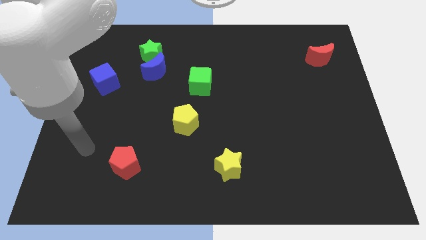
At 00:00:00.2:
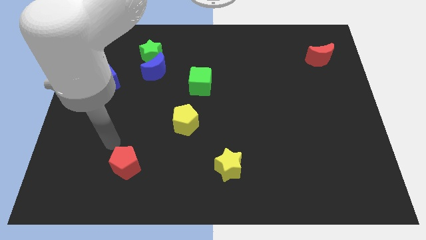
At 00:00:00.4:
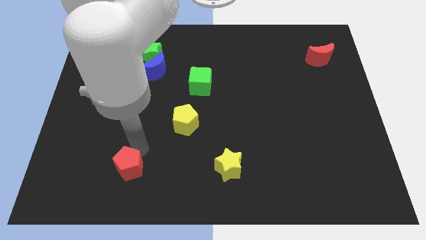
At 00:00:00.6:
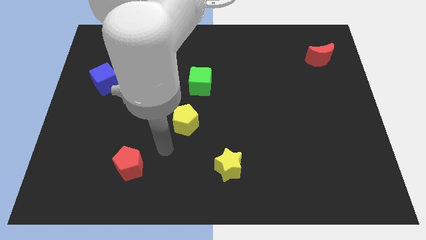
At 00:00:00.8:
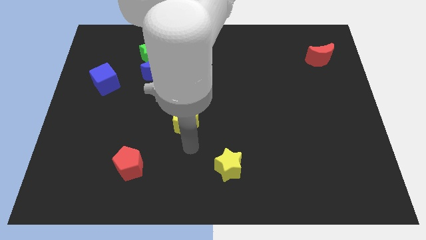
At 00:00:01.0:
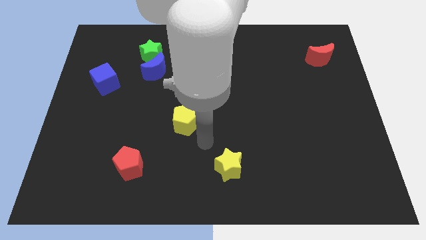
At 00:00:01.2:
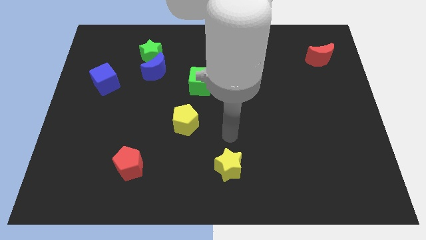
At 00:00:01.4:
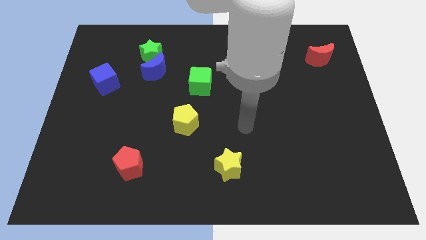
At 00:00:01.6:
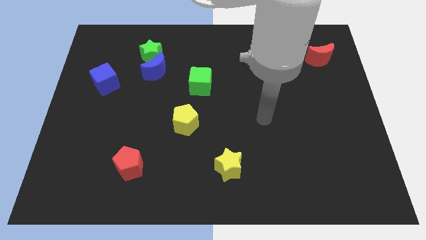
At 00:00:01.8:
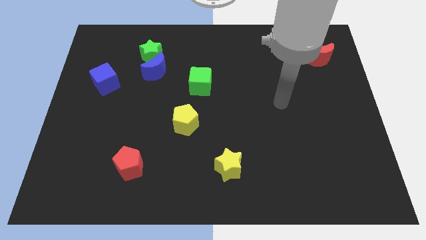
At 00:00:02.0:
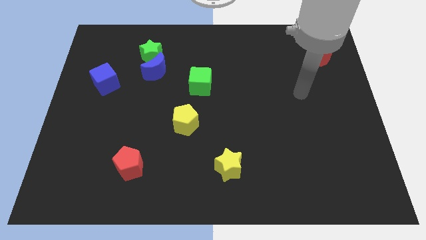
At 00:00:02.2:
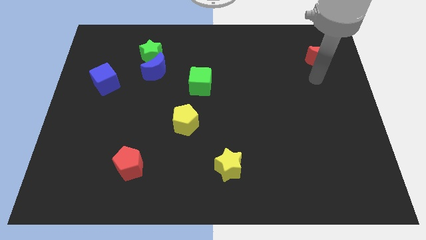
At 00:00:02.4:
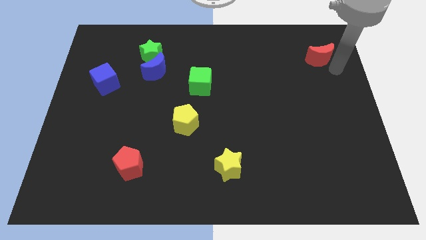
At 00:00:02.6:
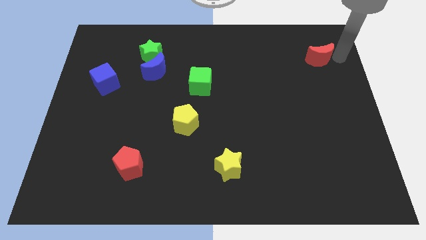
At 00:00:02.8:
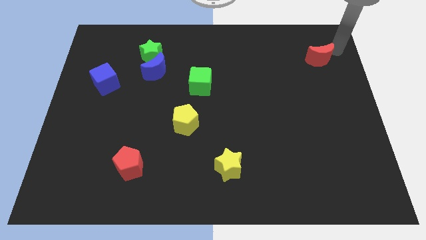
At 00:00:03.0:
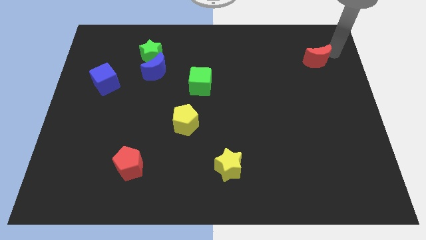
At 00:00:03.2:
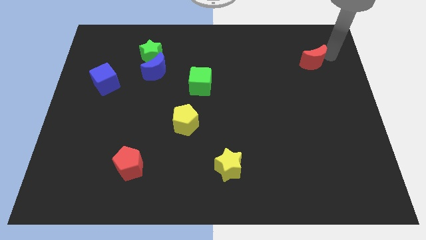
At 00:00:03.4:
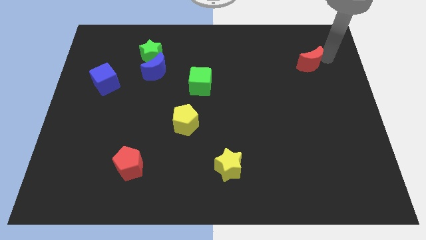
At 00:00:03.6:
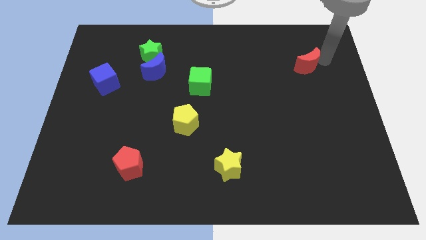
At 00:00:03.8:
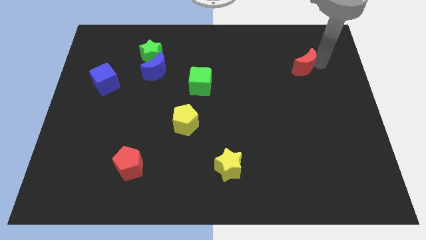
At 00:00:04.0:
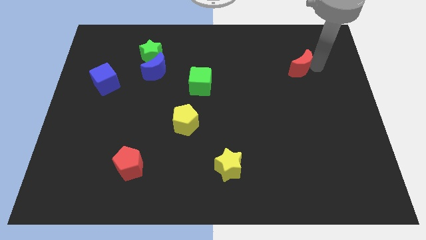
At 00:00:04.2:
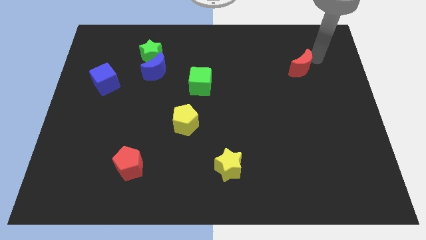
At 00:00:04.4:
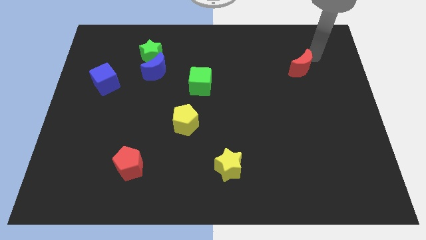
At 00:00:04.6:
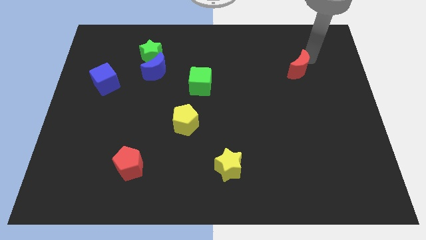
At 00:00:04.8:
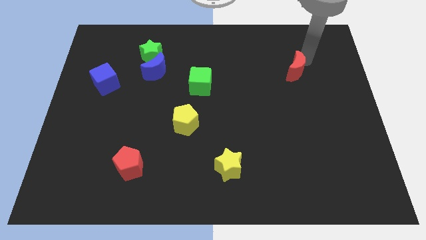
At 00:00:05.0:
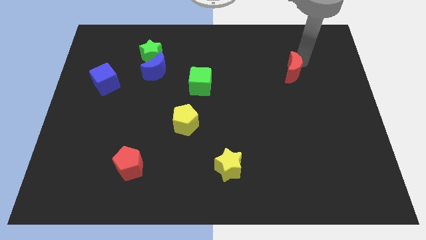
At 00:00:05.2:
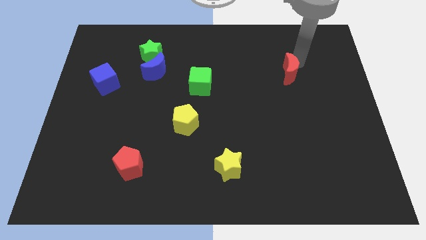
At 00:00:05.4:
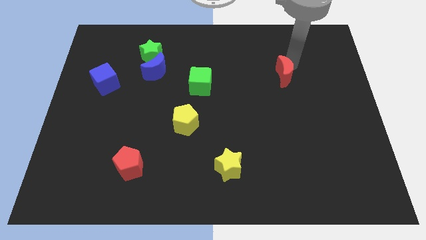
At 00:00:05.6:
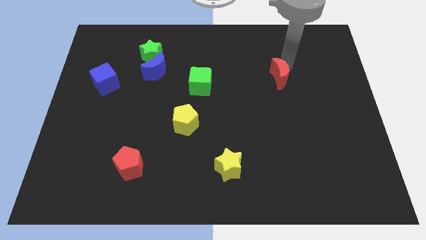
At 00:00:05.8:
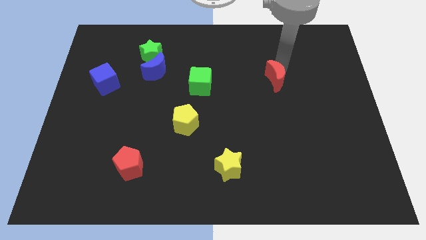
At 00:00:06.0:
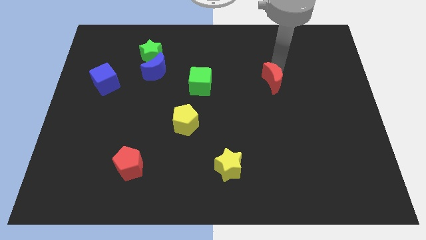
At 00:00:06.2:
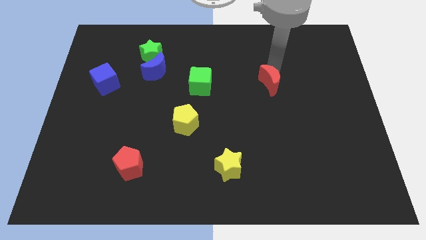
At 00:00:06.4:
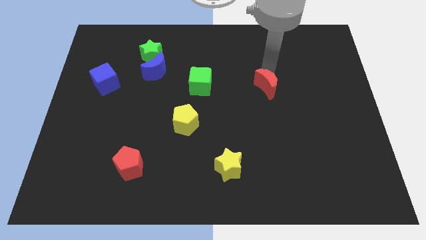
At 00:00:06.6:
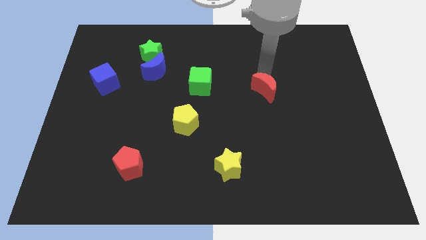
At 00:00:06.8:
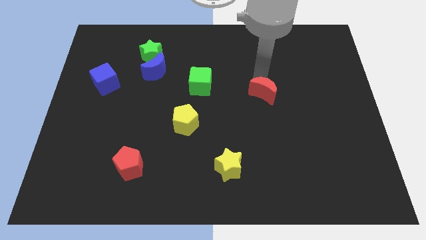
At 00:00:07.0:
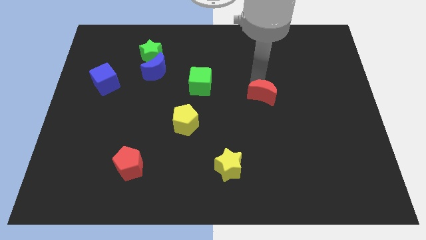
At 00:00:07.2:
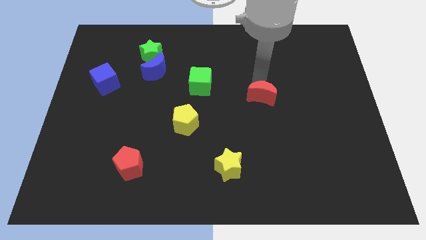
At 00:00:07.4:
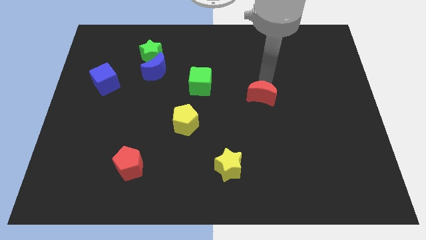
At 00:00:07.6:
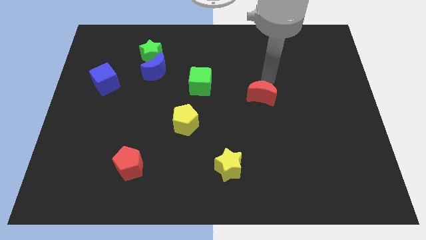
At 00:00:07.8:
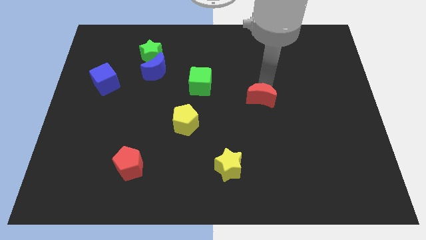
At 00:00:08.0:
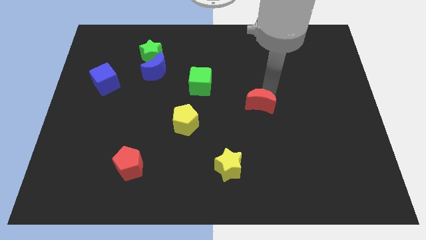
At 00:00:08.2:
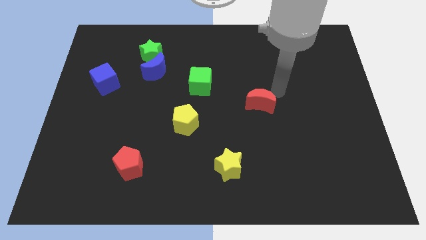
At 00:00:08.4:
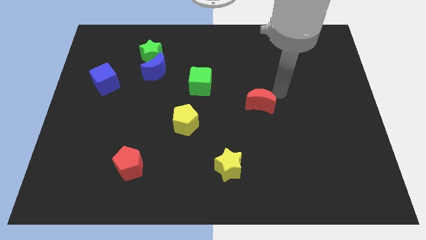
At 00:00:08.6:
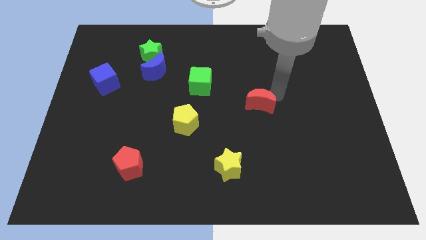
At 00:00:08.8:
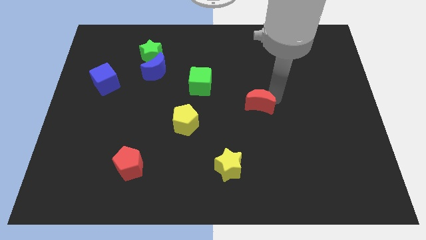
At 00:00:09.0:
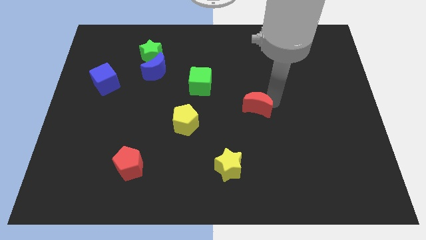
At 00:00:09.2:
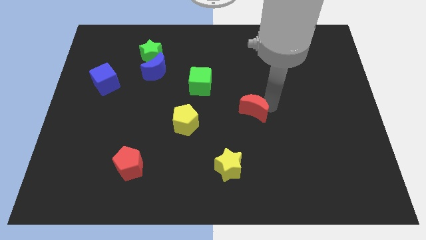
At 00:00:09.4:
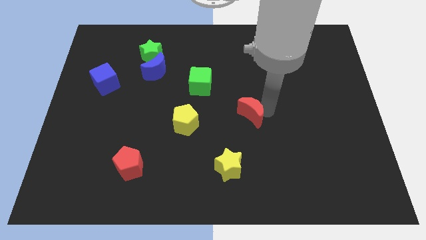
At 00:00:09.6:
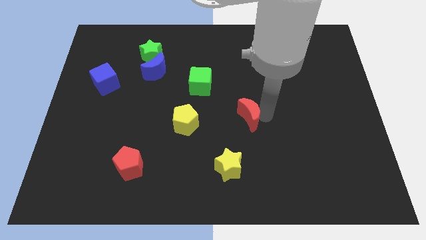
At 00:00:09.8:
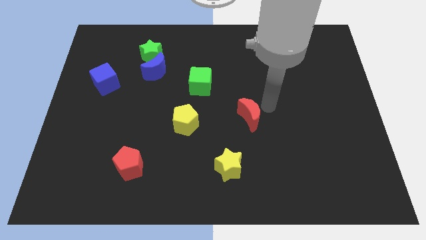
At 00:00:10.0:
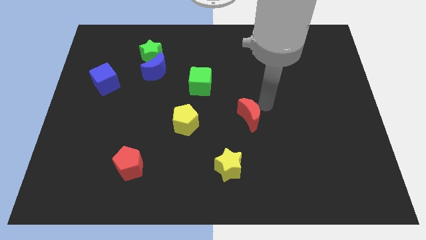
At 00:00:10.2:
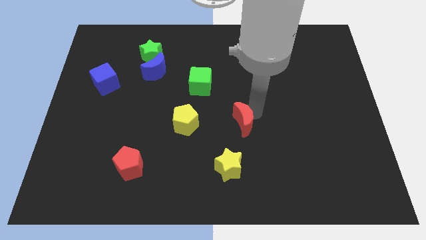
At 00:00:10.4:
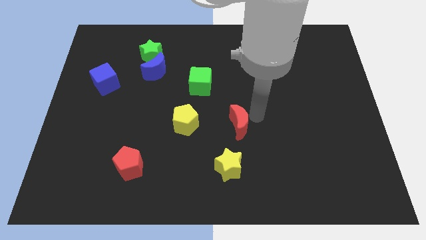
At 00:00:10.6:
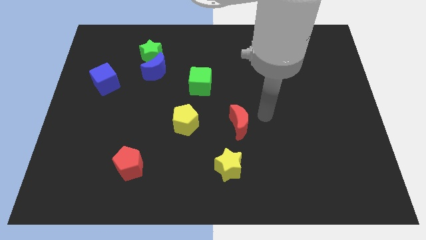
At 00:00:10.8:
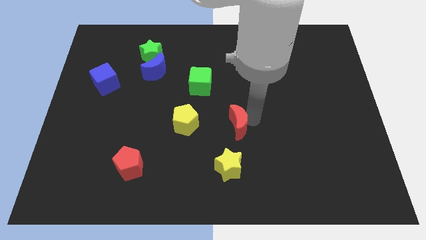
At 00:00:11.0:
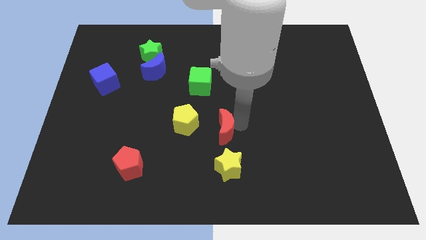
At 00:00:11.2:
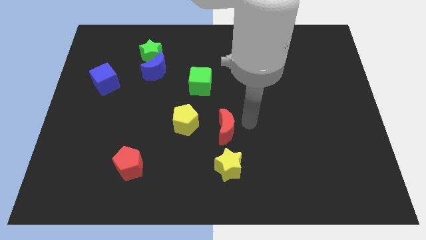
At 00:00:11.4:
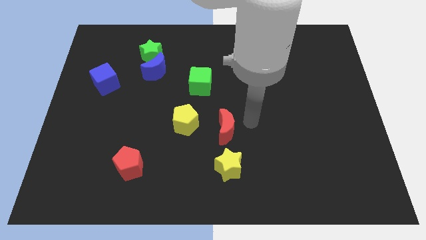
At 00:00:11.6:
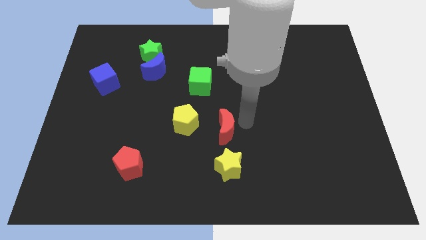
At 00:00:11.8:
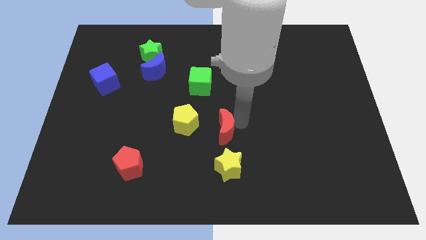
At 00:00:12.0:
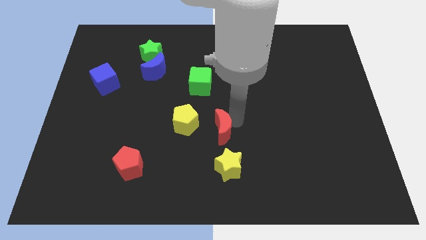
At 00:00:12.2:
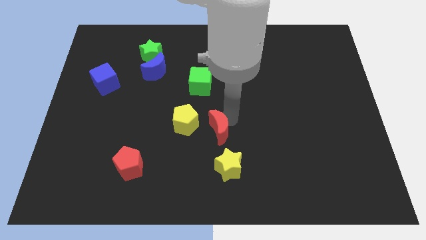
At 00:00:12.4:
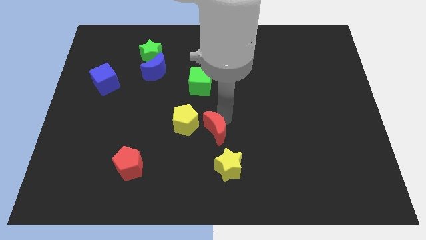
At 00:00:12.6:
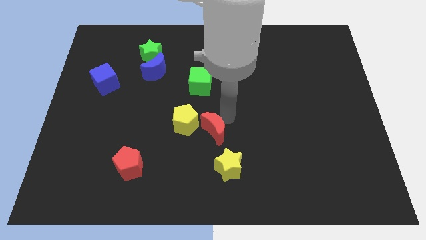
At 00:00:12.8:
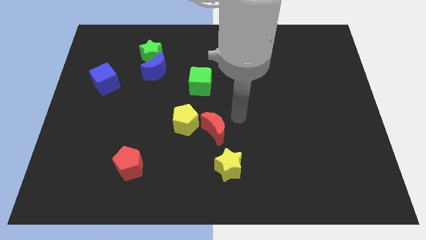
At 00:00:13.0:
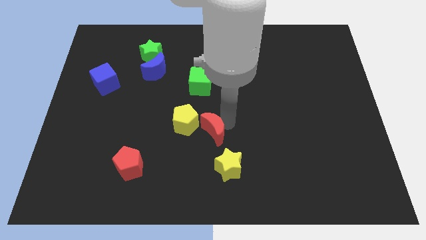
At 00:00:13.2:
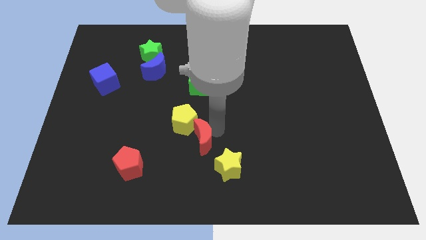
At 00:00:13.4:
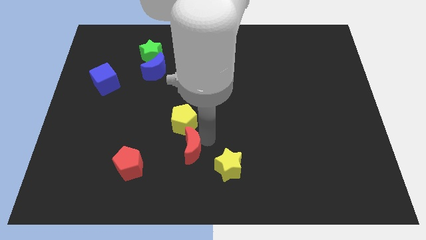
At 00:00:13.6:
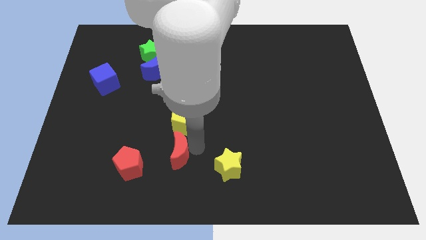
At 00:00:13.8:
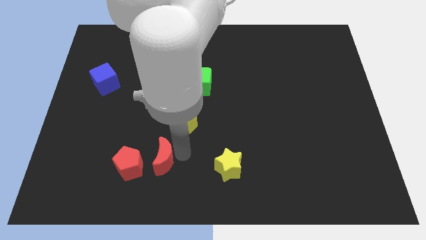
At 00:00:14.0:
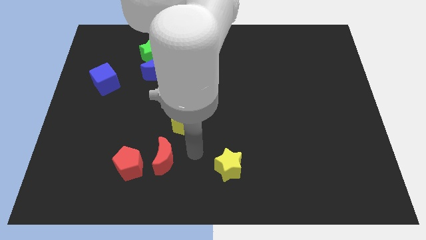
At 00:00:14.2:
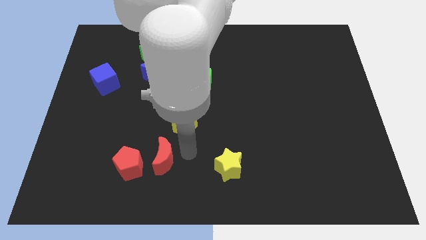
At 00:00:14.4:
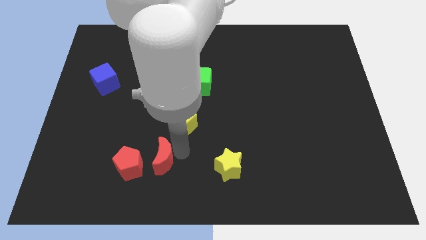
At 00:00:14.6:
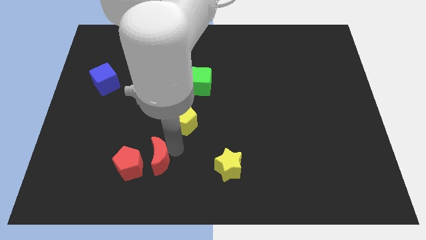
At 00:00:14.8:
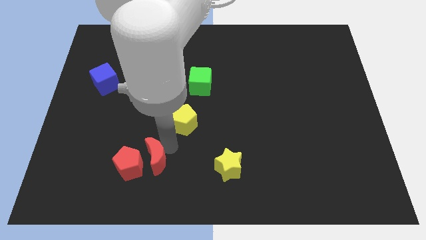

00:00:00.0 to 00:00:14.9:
move the red moon towards the red pentagon
